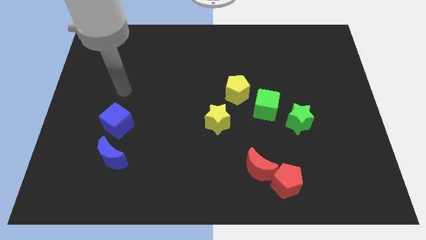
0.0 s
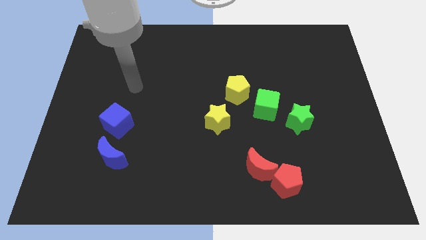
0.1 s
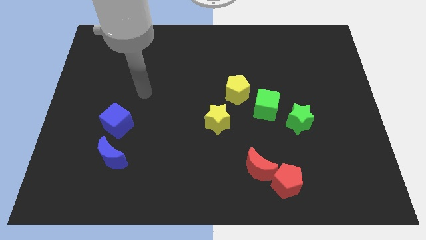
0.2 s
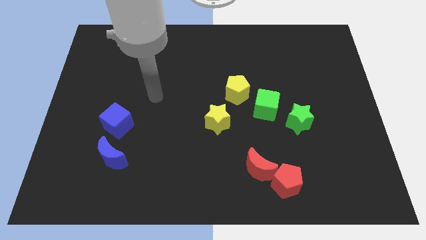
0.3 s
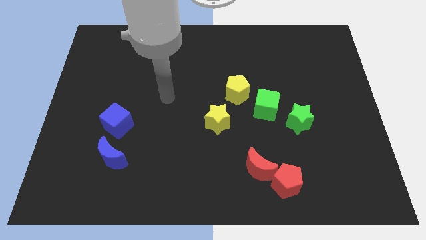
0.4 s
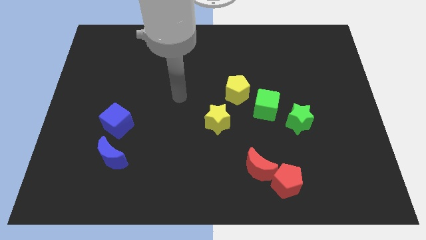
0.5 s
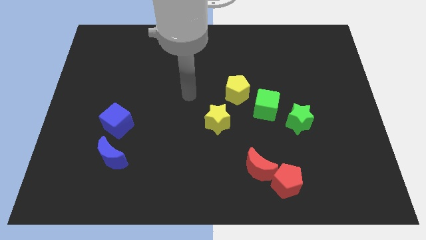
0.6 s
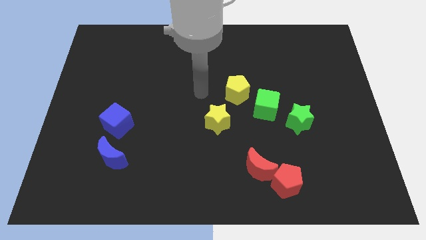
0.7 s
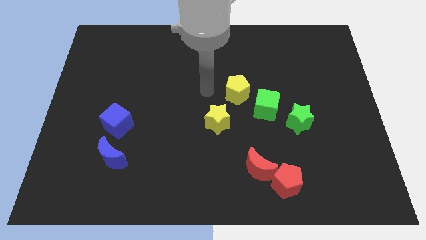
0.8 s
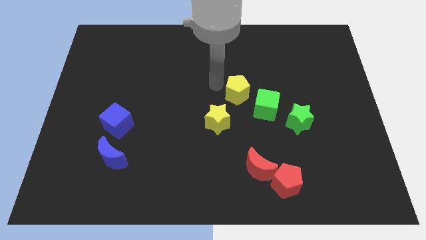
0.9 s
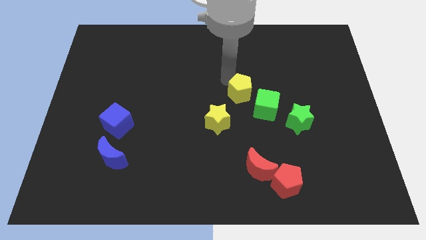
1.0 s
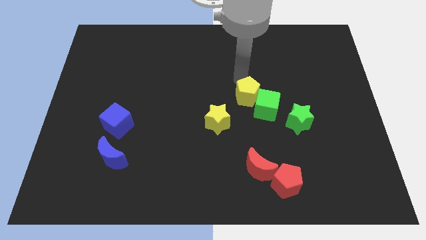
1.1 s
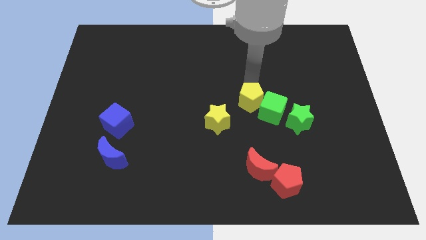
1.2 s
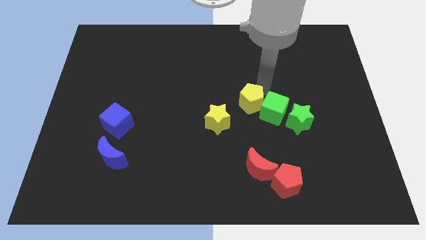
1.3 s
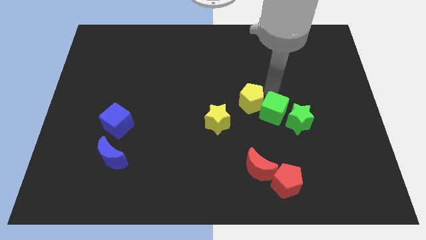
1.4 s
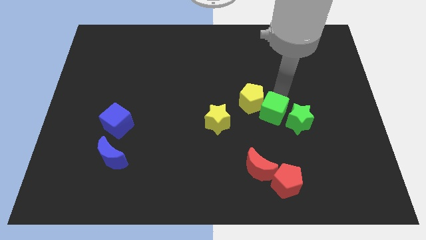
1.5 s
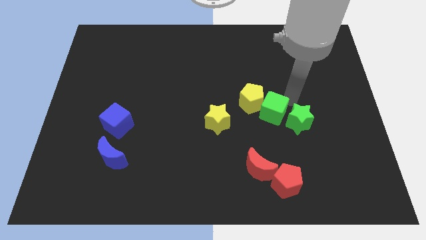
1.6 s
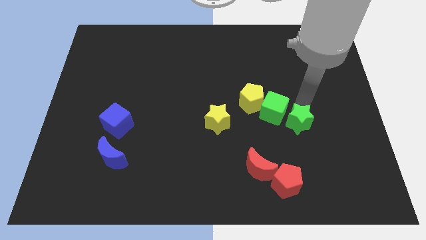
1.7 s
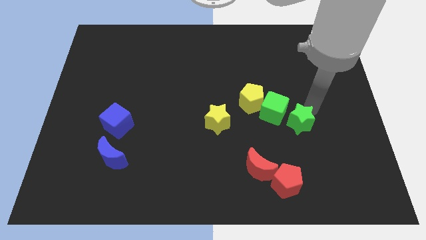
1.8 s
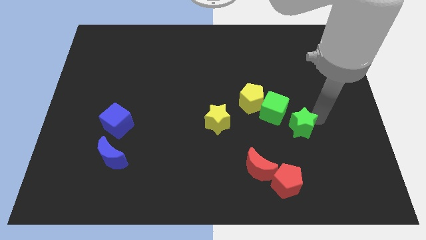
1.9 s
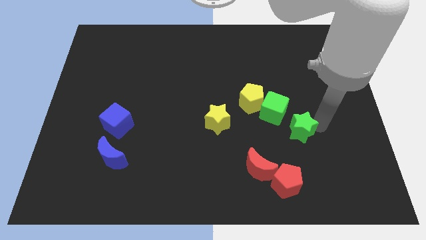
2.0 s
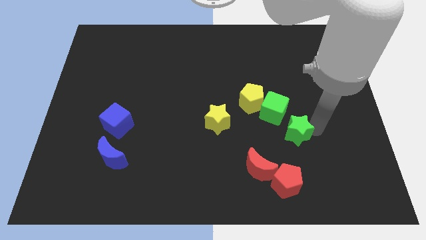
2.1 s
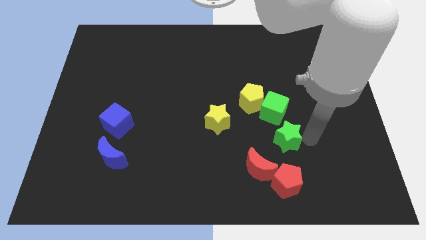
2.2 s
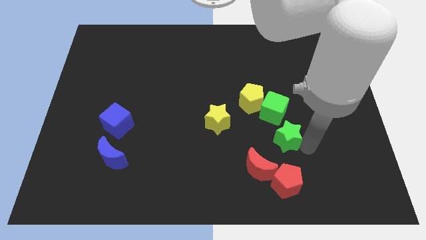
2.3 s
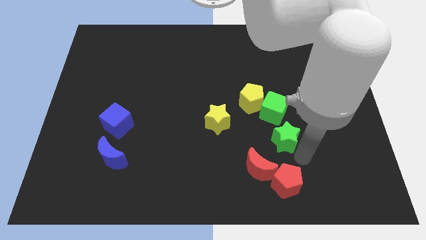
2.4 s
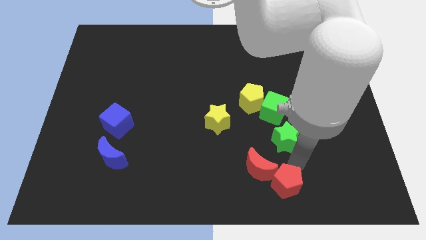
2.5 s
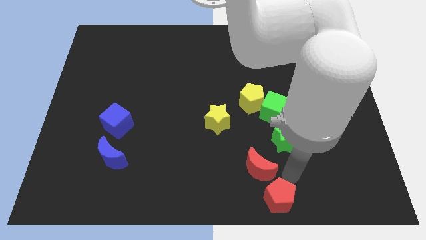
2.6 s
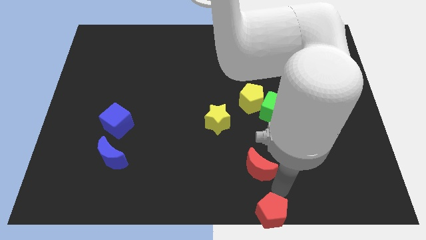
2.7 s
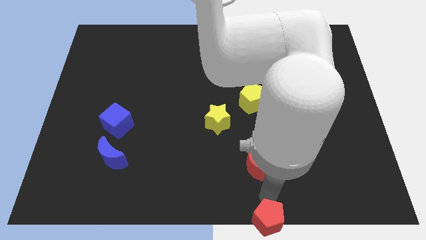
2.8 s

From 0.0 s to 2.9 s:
pull the red moon apart from the red pentagon

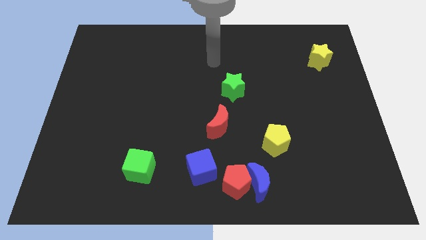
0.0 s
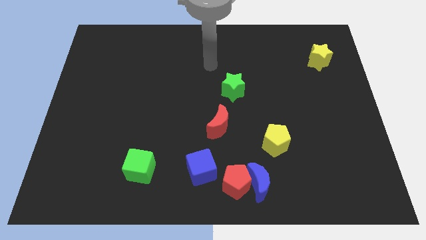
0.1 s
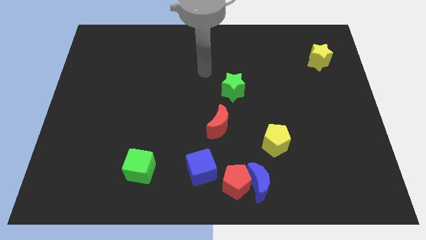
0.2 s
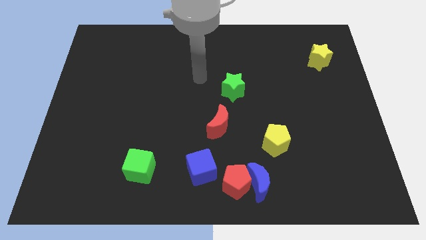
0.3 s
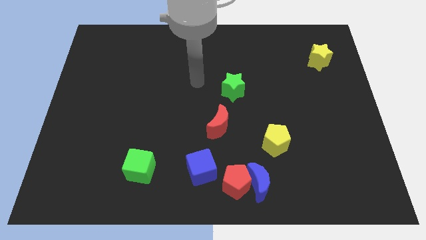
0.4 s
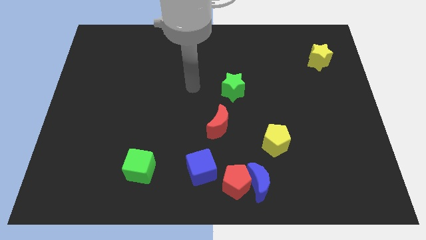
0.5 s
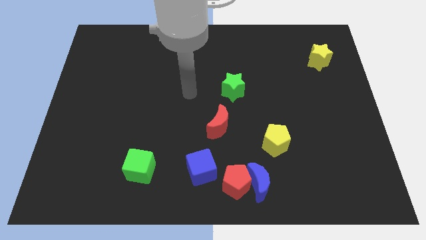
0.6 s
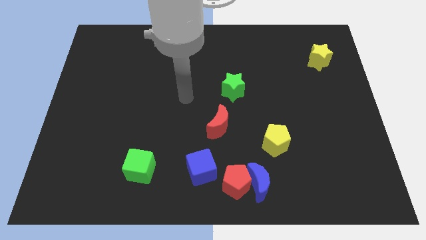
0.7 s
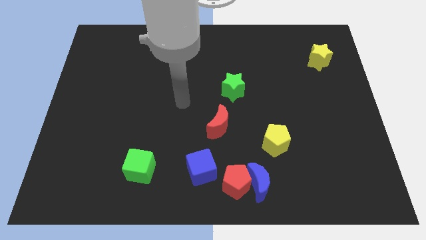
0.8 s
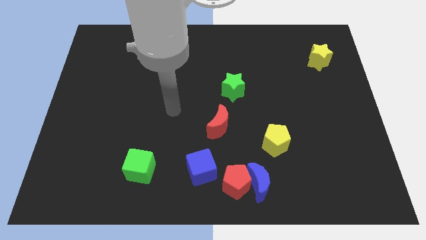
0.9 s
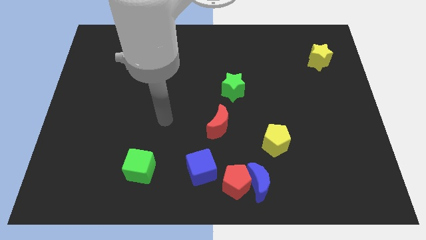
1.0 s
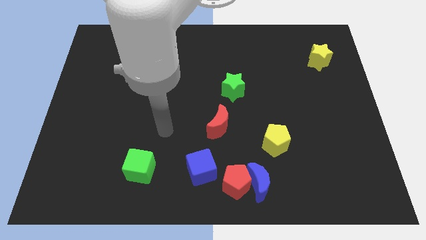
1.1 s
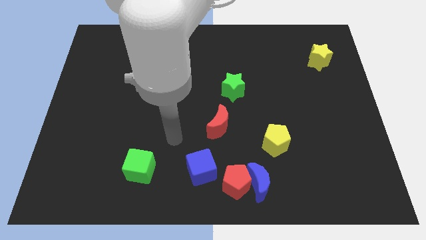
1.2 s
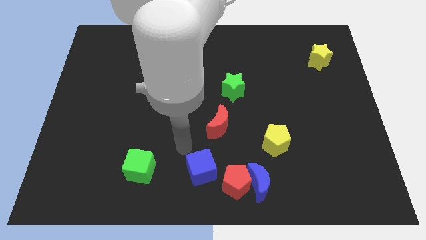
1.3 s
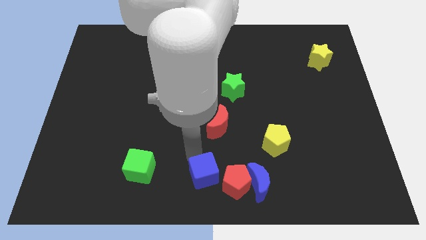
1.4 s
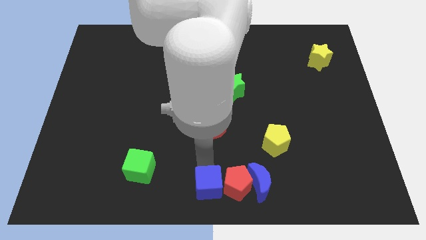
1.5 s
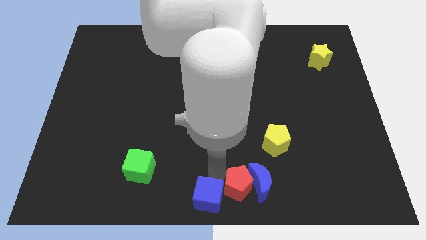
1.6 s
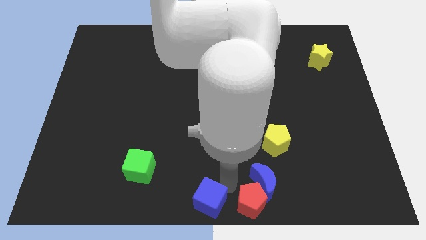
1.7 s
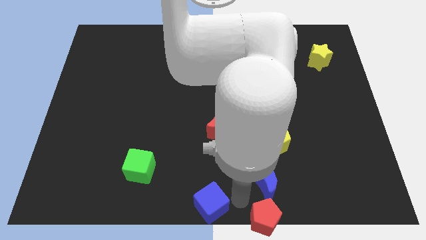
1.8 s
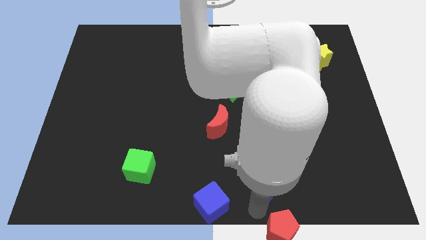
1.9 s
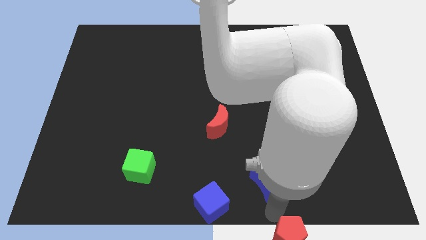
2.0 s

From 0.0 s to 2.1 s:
separate the blue moon from the red pentagon

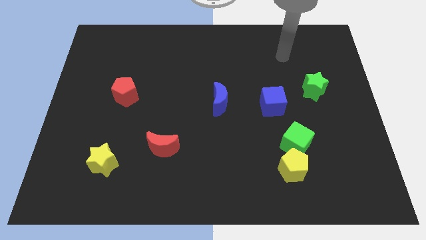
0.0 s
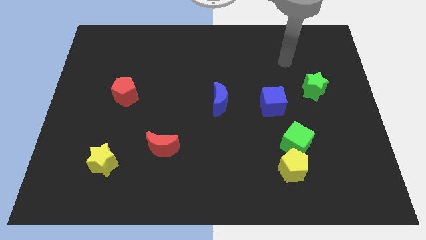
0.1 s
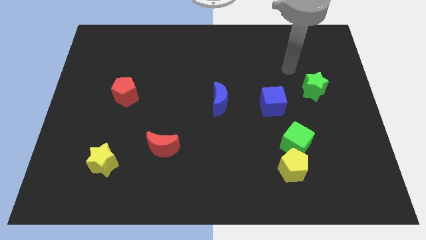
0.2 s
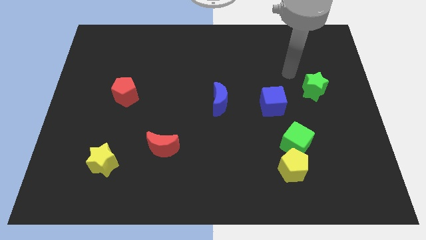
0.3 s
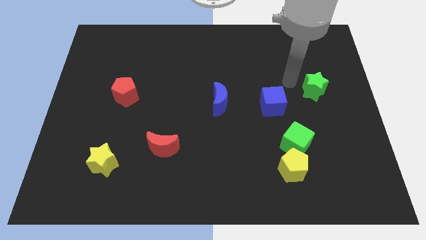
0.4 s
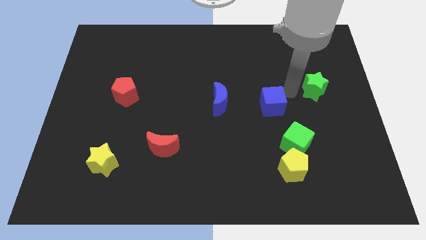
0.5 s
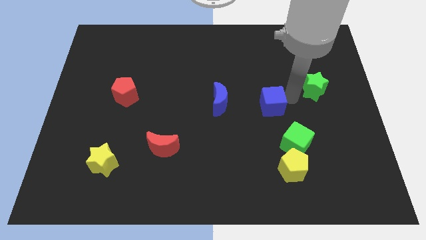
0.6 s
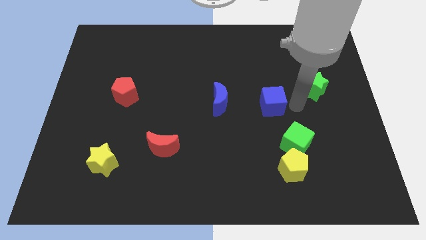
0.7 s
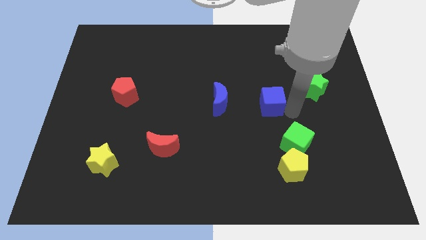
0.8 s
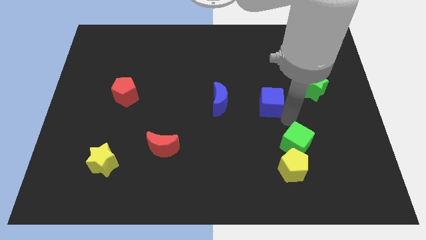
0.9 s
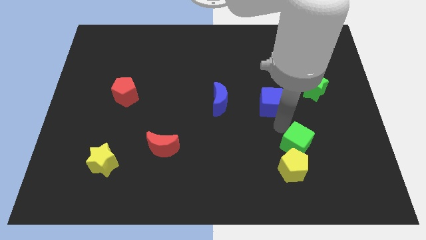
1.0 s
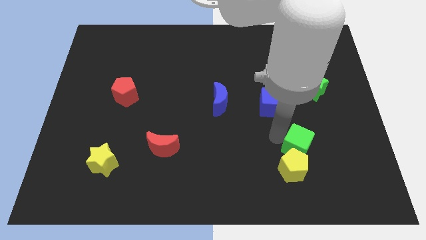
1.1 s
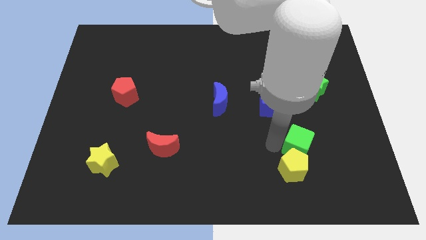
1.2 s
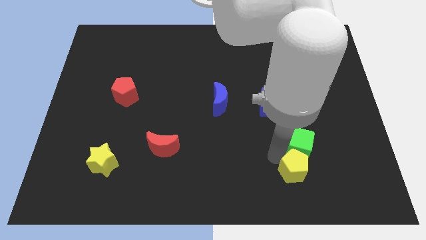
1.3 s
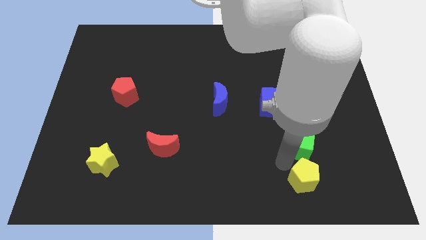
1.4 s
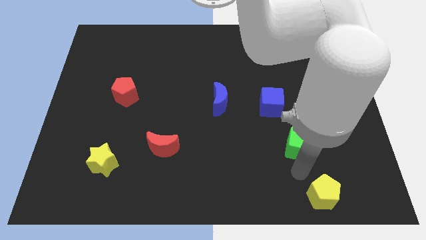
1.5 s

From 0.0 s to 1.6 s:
move the green cube away from the yellow pentagon

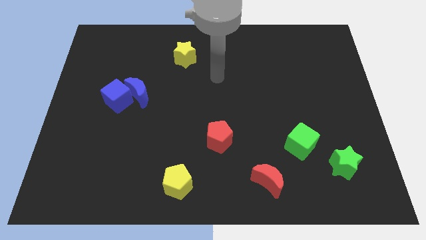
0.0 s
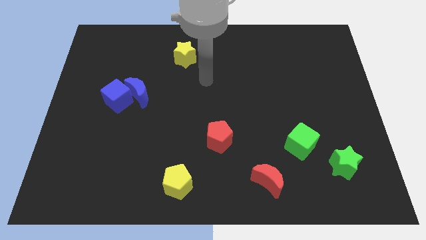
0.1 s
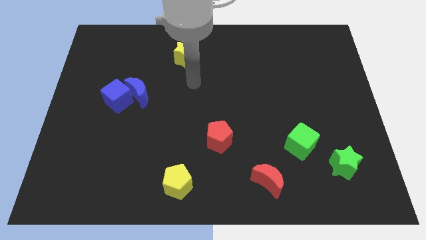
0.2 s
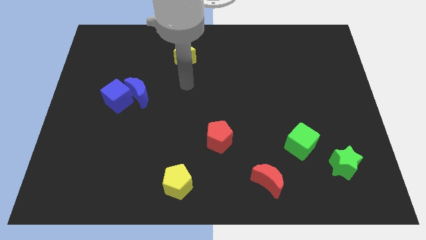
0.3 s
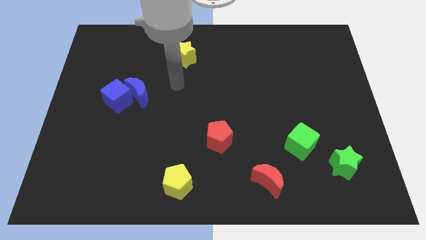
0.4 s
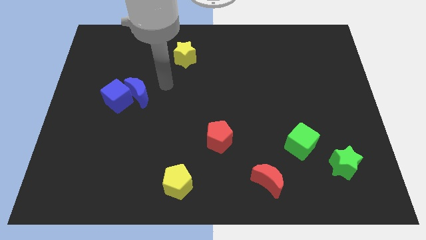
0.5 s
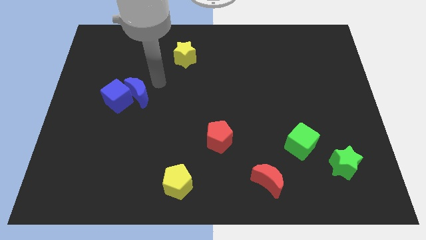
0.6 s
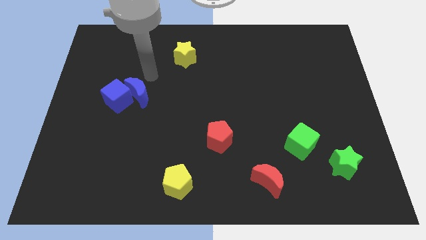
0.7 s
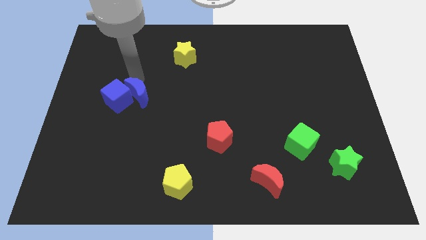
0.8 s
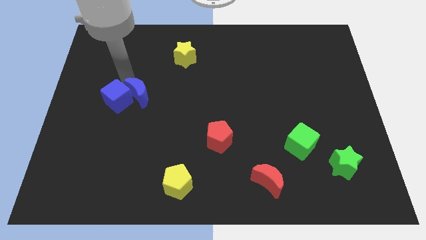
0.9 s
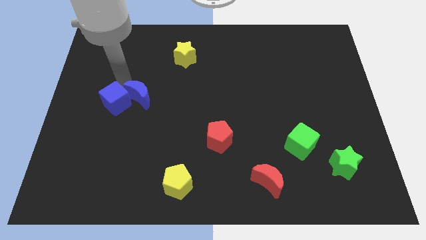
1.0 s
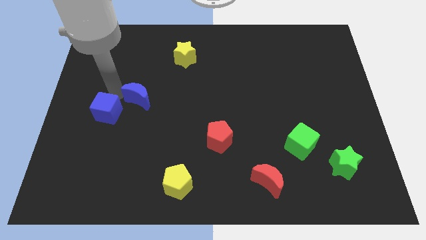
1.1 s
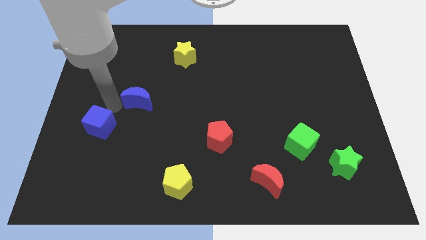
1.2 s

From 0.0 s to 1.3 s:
separate the blue moon from the blue cube

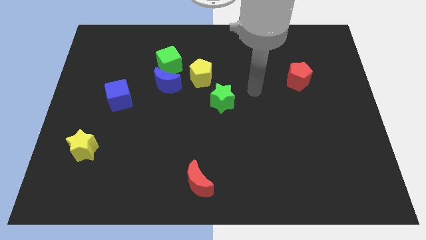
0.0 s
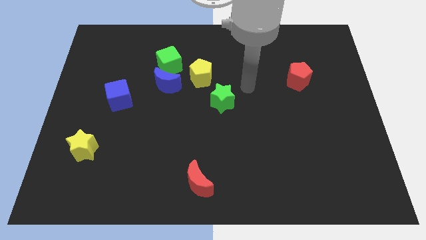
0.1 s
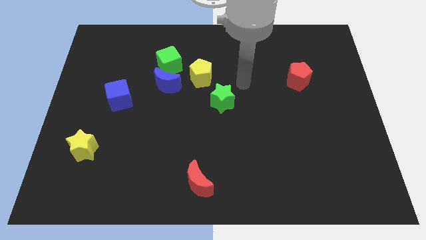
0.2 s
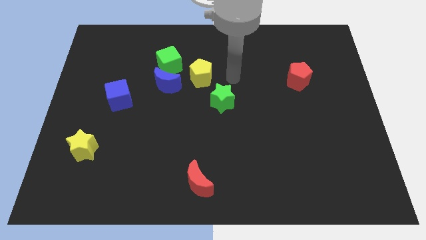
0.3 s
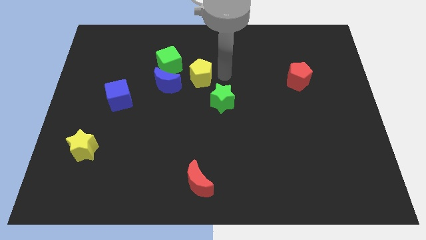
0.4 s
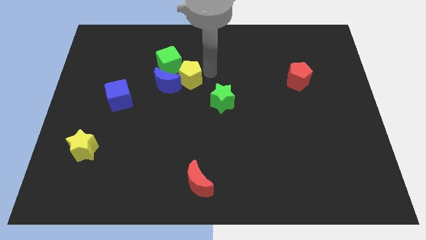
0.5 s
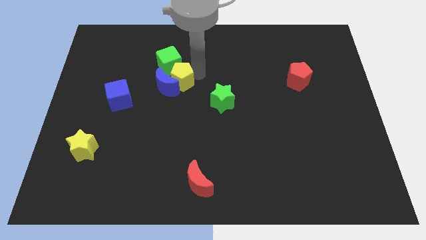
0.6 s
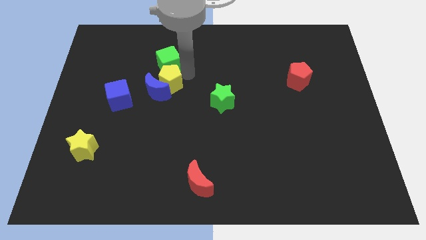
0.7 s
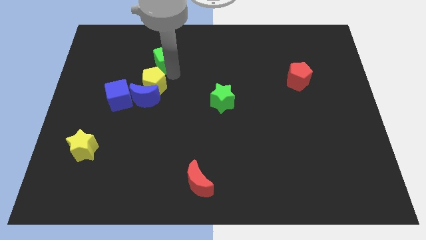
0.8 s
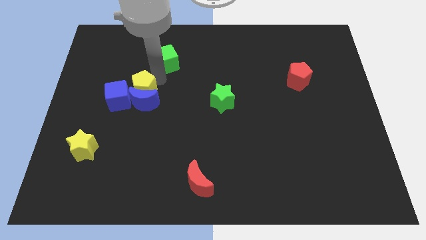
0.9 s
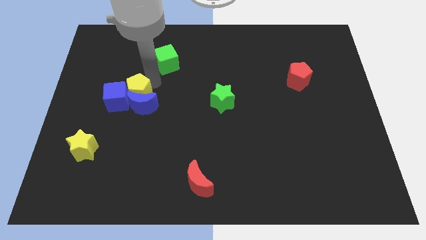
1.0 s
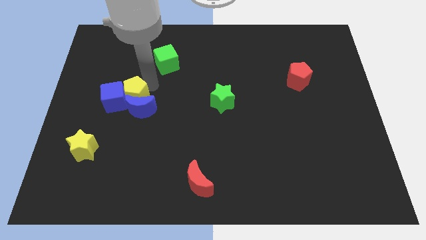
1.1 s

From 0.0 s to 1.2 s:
pull the blue moon apart from the green cube and yellow pentagon

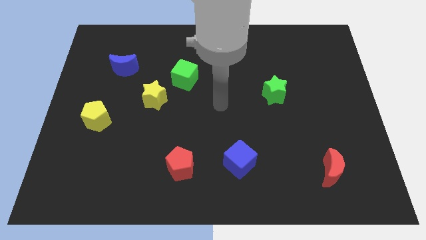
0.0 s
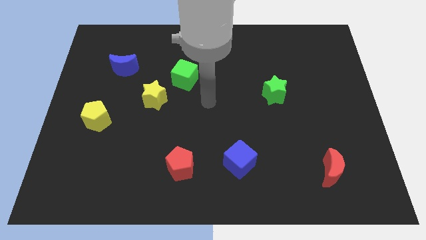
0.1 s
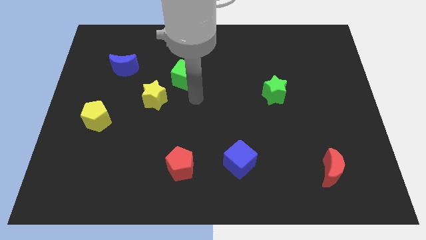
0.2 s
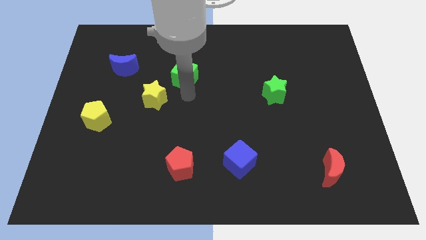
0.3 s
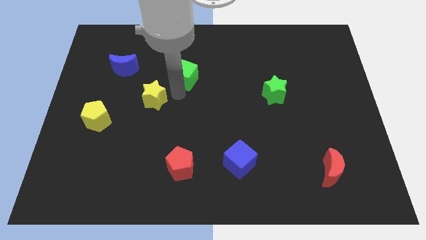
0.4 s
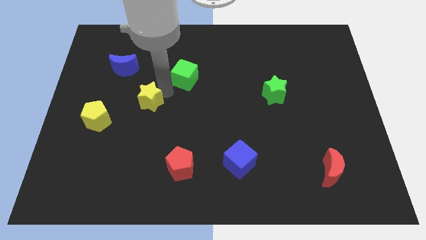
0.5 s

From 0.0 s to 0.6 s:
separate the green cube from the yellow star
